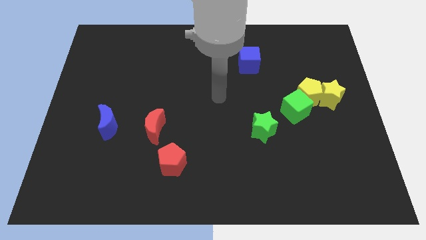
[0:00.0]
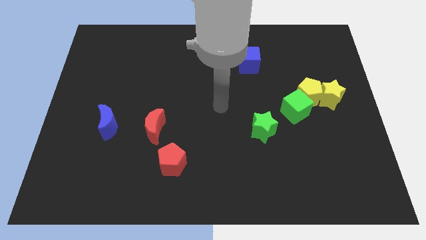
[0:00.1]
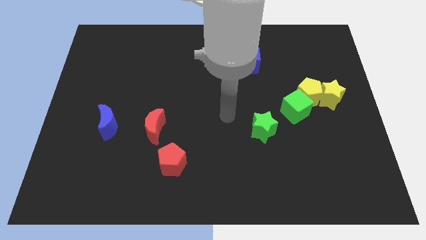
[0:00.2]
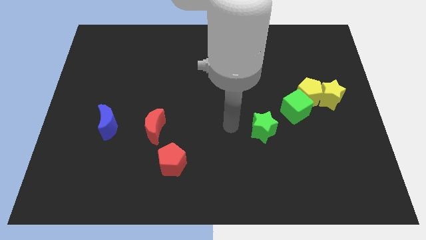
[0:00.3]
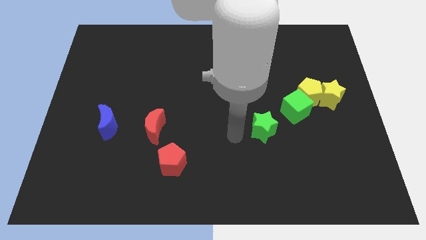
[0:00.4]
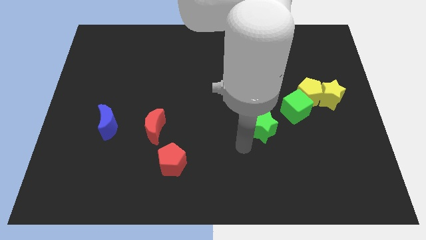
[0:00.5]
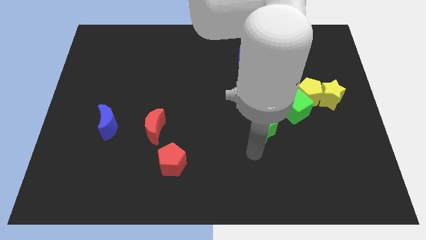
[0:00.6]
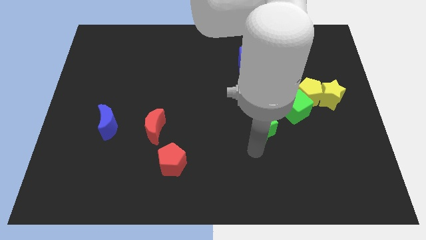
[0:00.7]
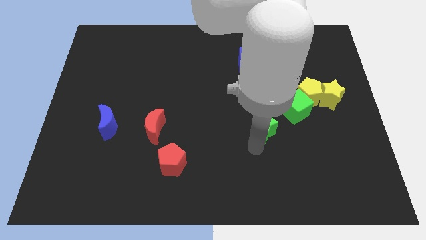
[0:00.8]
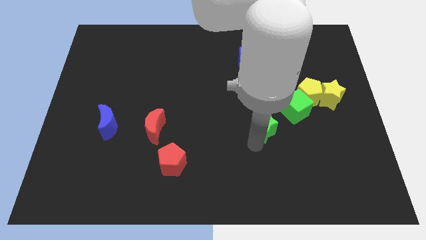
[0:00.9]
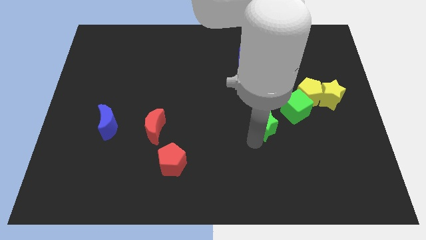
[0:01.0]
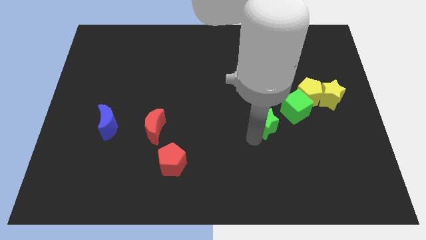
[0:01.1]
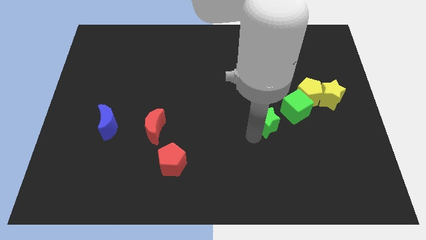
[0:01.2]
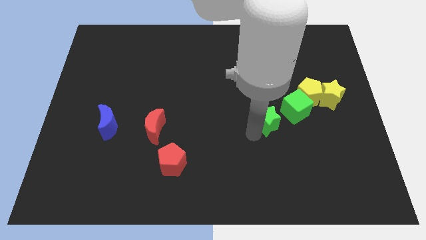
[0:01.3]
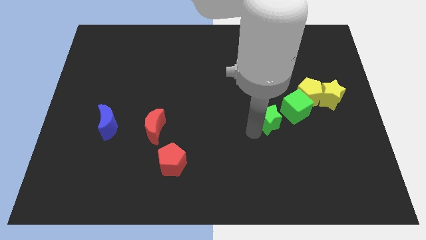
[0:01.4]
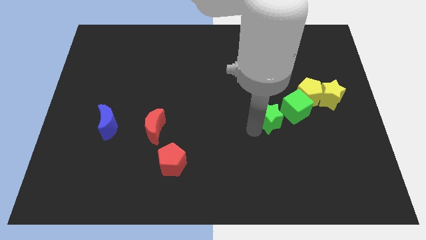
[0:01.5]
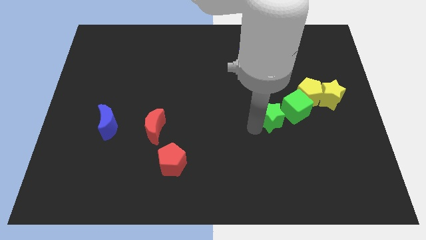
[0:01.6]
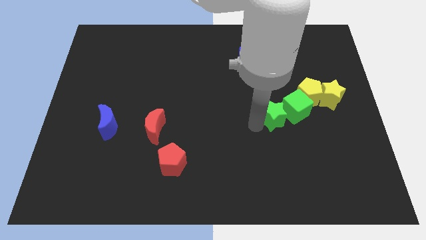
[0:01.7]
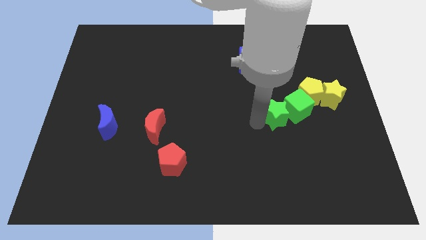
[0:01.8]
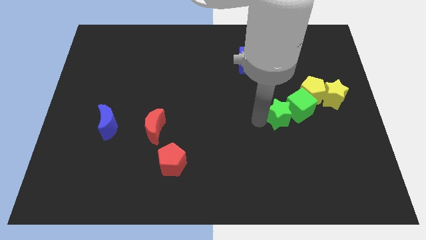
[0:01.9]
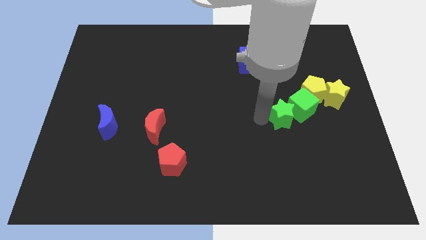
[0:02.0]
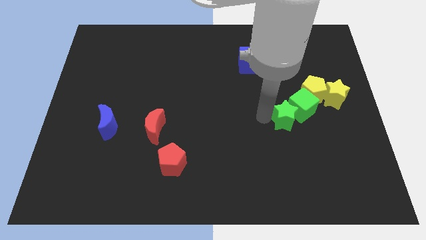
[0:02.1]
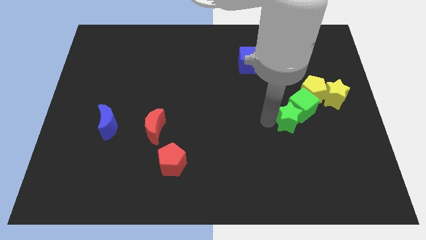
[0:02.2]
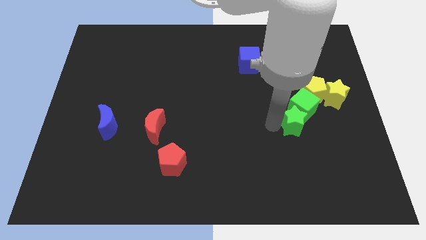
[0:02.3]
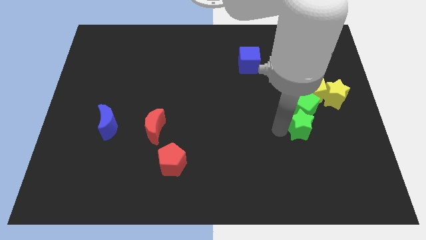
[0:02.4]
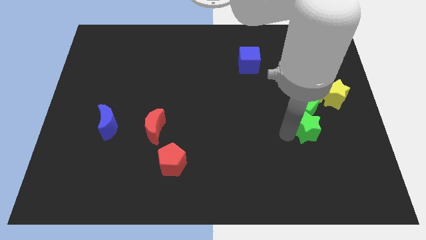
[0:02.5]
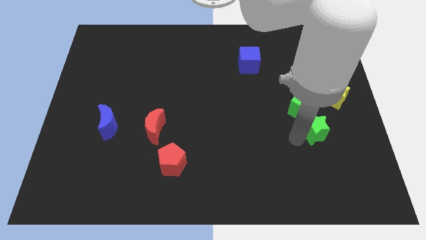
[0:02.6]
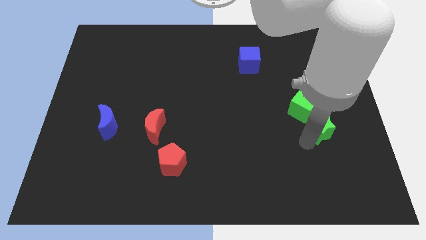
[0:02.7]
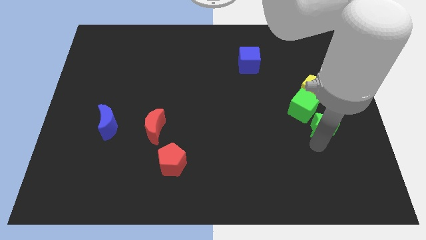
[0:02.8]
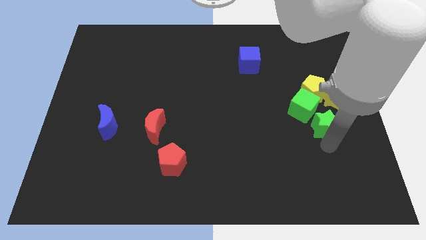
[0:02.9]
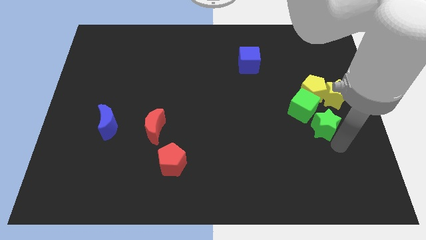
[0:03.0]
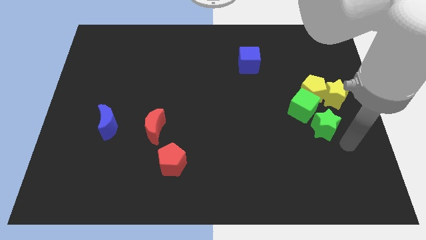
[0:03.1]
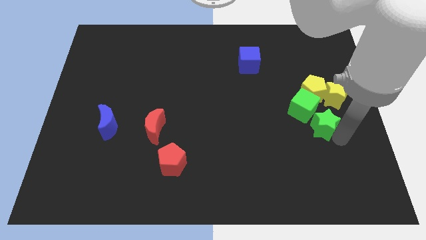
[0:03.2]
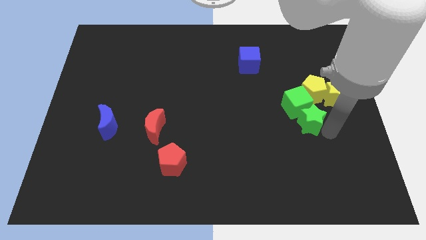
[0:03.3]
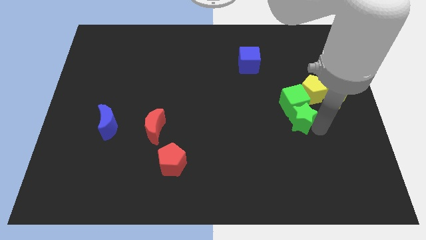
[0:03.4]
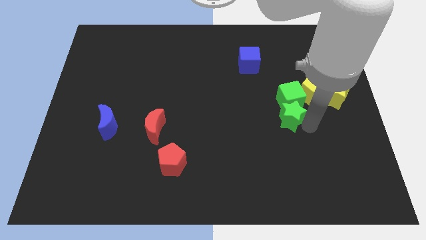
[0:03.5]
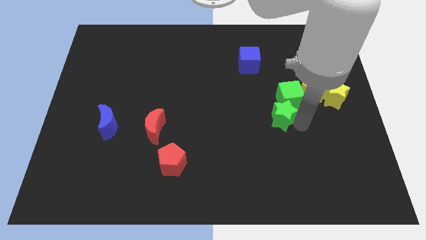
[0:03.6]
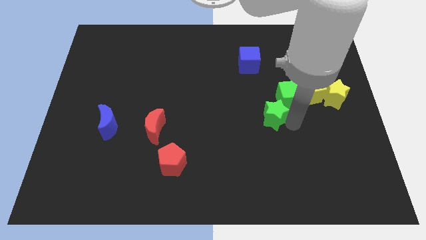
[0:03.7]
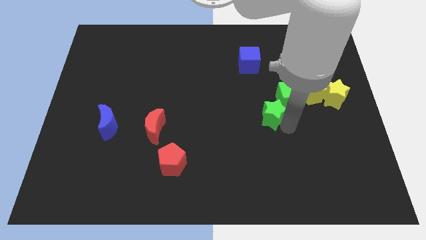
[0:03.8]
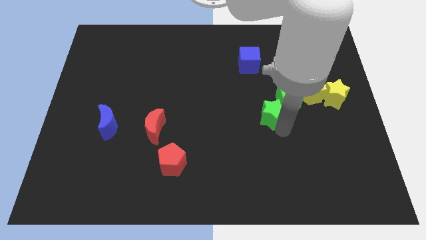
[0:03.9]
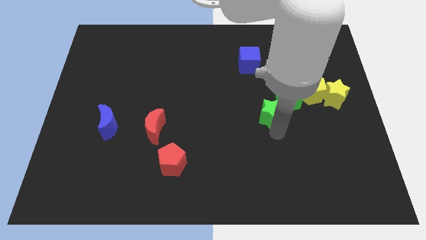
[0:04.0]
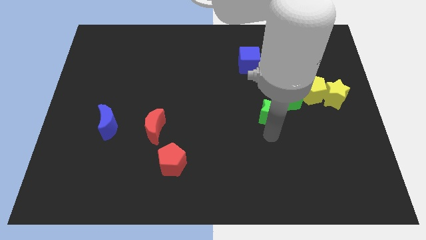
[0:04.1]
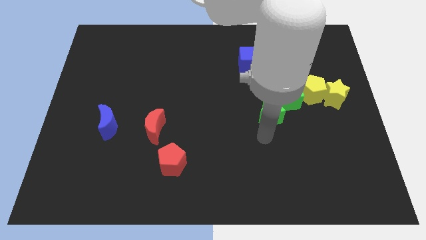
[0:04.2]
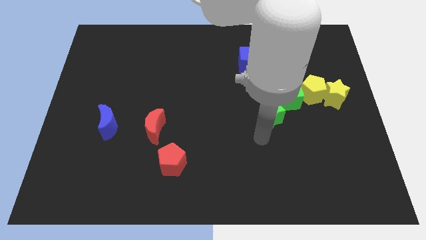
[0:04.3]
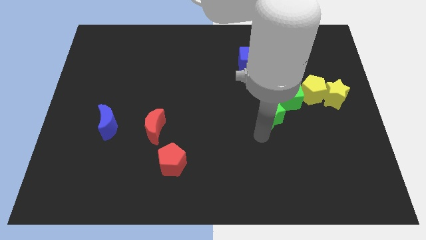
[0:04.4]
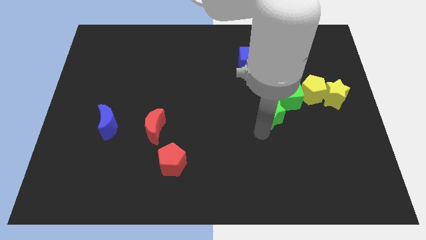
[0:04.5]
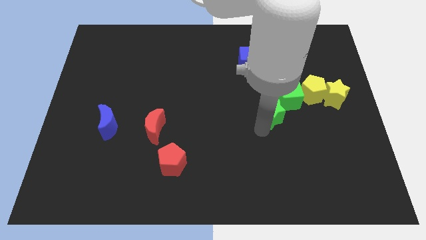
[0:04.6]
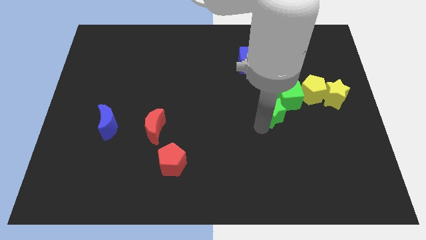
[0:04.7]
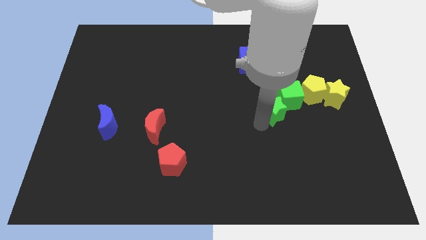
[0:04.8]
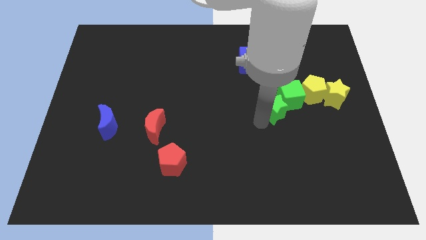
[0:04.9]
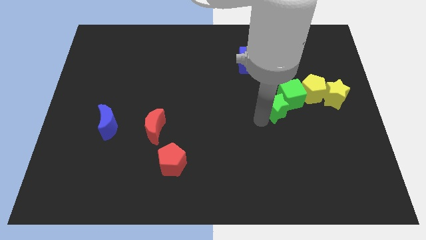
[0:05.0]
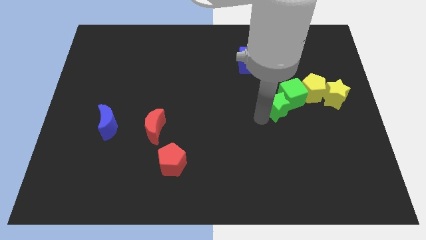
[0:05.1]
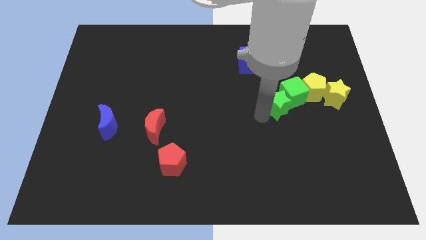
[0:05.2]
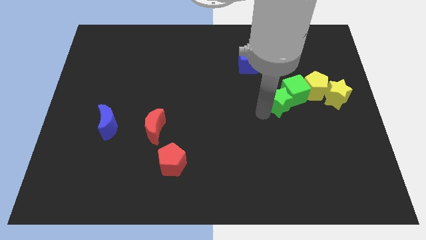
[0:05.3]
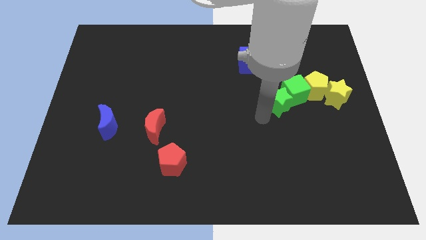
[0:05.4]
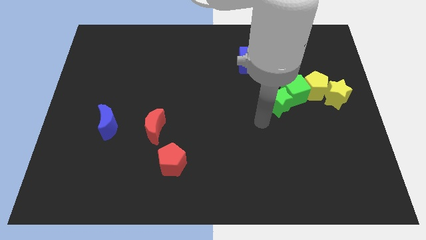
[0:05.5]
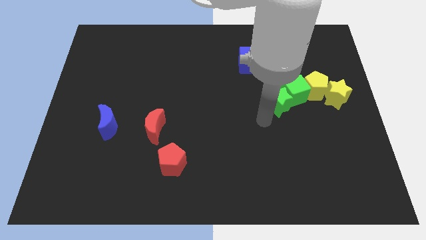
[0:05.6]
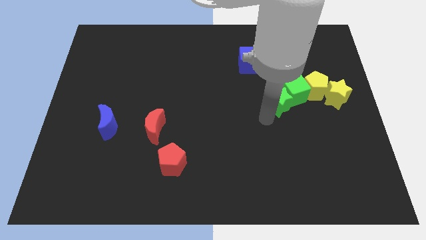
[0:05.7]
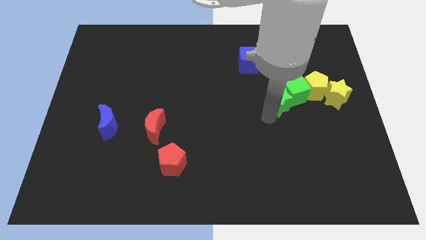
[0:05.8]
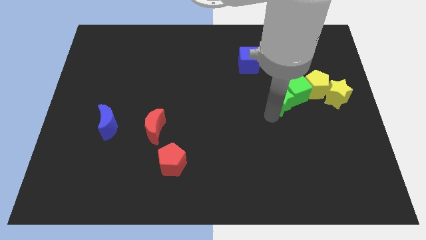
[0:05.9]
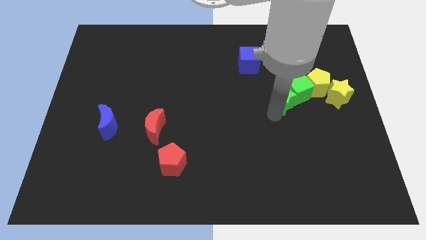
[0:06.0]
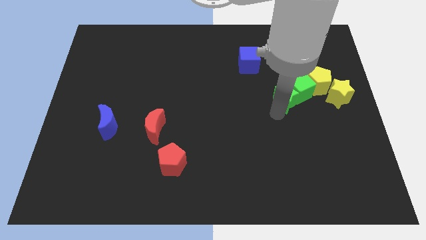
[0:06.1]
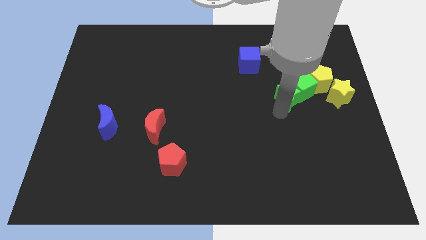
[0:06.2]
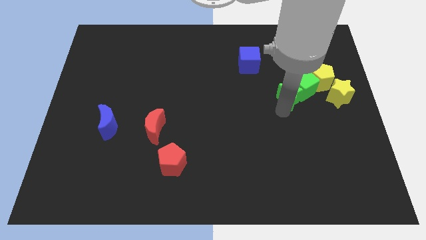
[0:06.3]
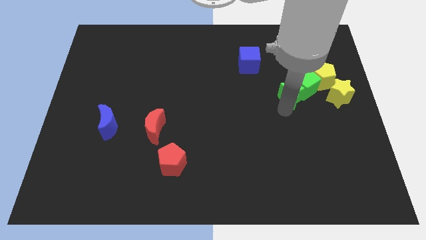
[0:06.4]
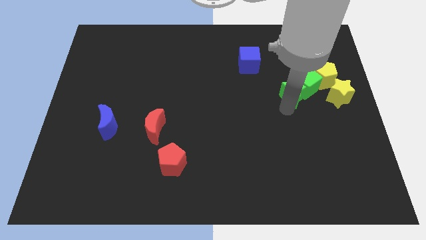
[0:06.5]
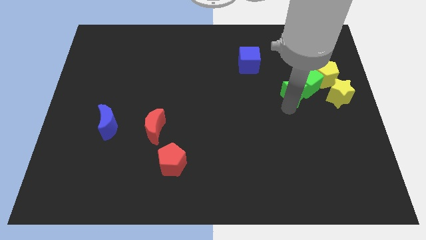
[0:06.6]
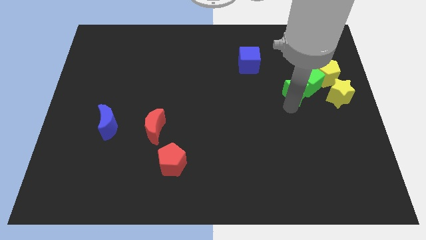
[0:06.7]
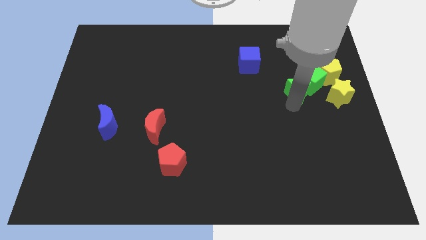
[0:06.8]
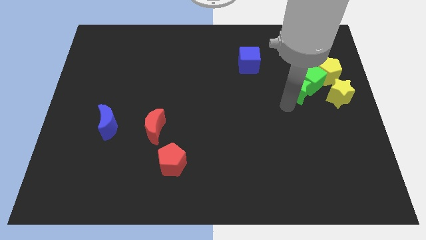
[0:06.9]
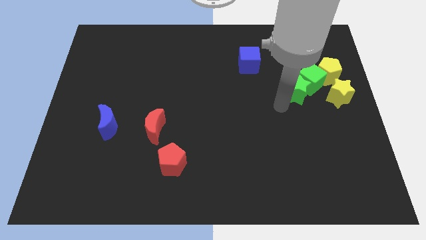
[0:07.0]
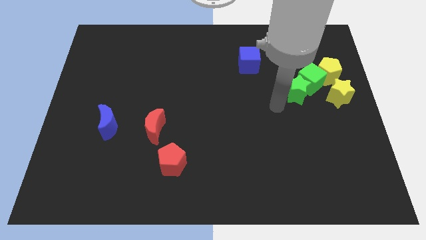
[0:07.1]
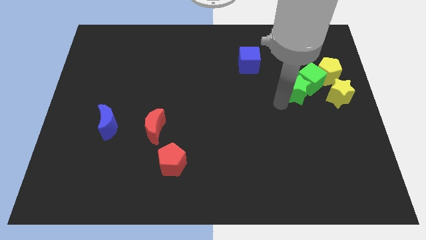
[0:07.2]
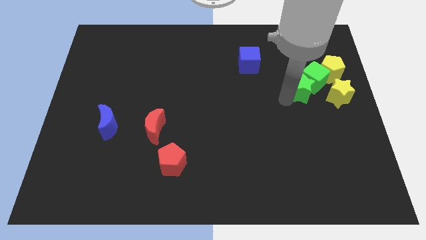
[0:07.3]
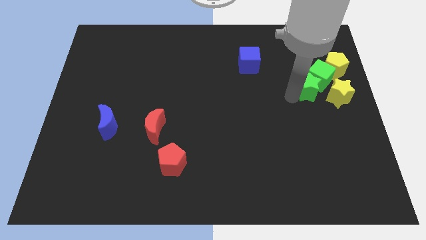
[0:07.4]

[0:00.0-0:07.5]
slide the green star diagonally up and to the left of the yellow star
